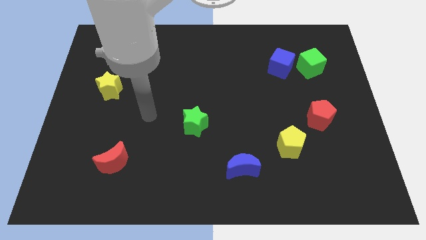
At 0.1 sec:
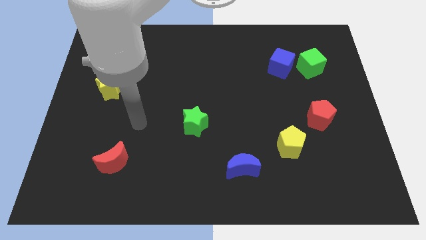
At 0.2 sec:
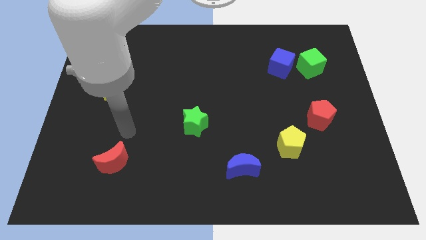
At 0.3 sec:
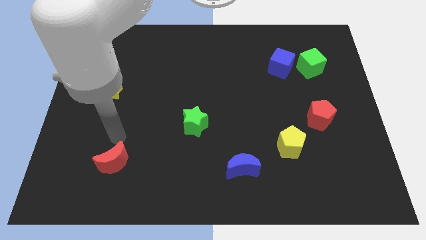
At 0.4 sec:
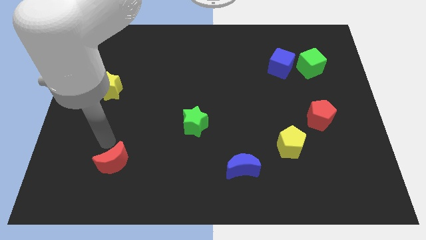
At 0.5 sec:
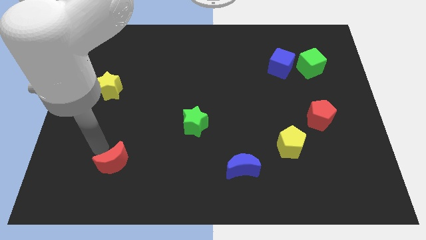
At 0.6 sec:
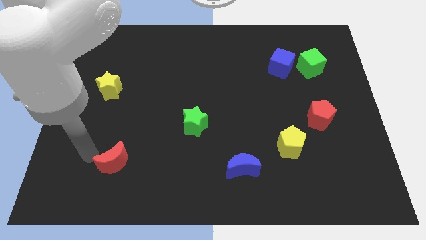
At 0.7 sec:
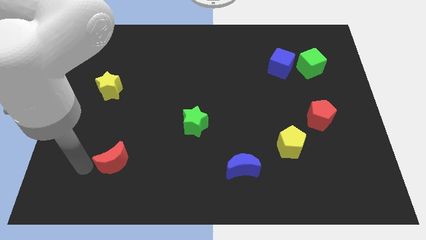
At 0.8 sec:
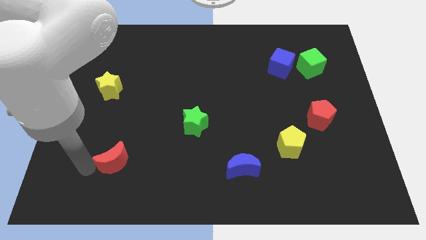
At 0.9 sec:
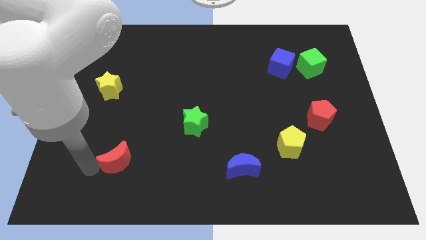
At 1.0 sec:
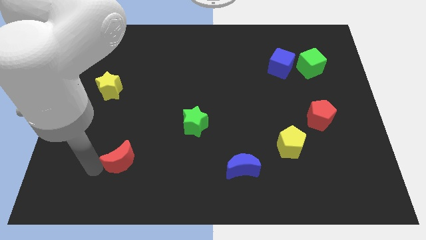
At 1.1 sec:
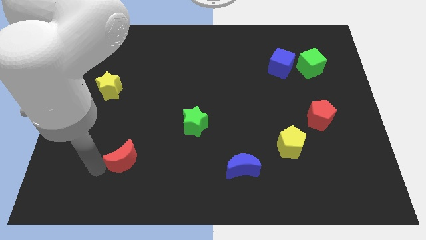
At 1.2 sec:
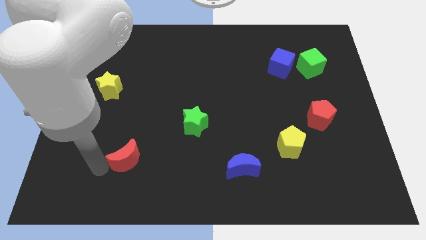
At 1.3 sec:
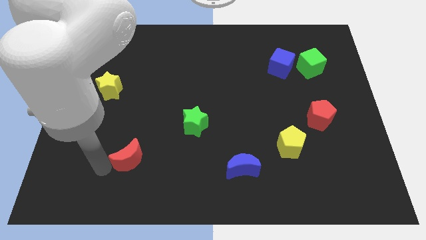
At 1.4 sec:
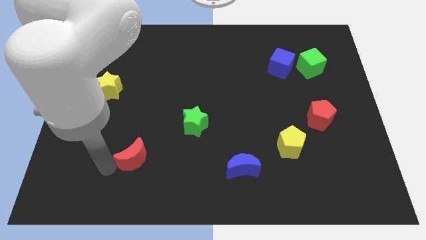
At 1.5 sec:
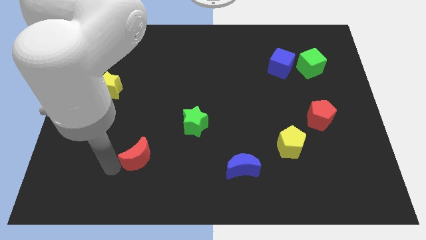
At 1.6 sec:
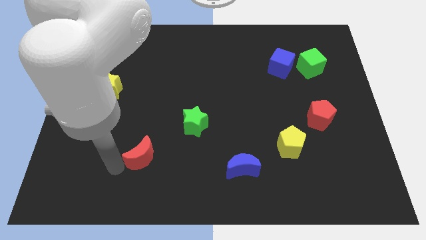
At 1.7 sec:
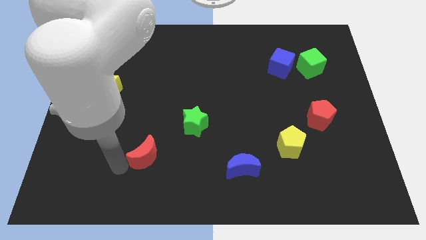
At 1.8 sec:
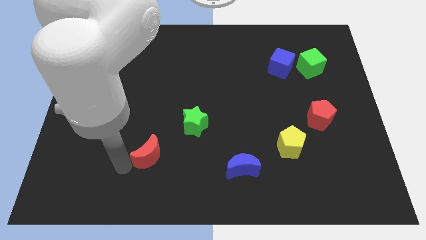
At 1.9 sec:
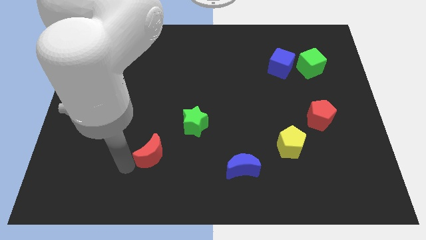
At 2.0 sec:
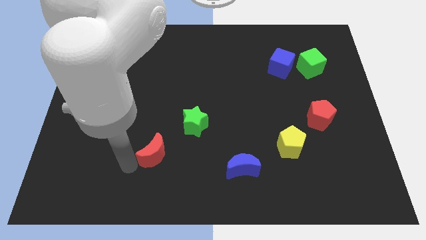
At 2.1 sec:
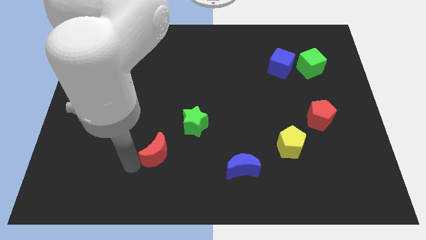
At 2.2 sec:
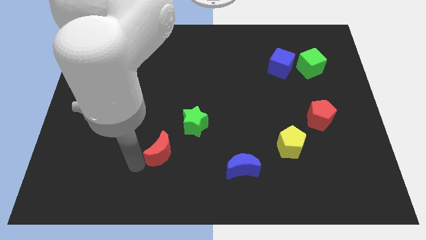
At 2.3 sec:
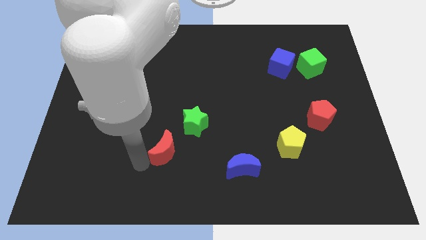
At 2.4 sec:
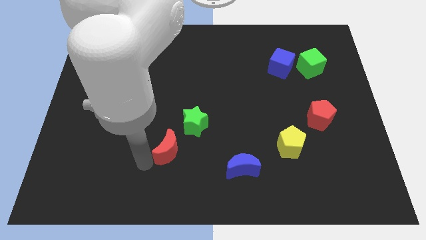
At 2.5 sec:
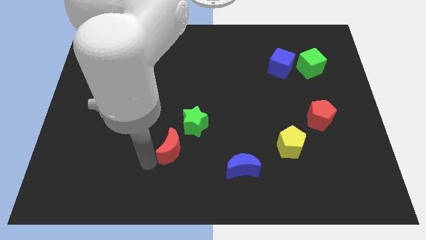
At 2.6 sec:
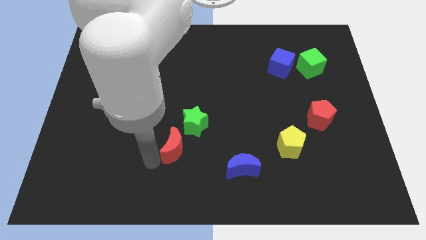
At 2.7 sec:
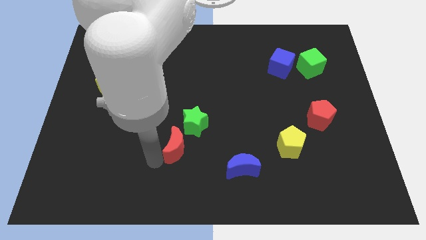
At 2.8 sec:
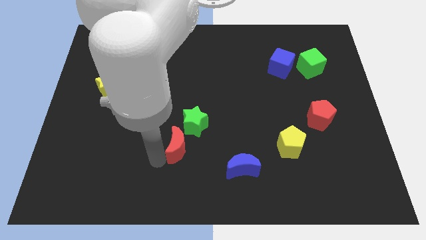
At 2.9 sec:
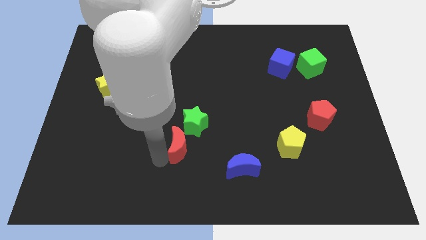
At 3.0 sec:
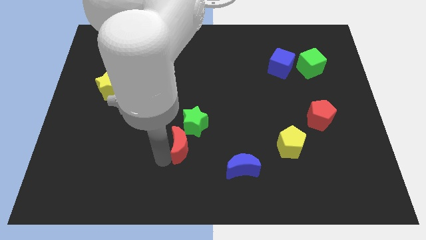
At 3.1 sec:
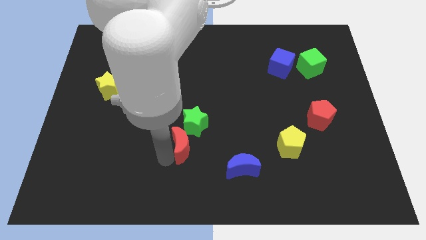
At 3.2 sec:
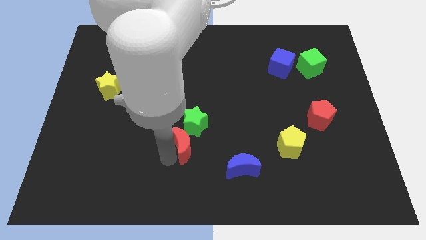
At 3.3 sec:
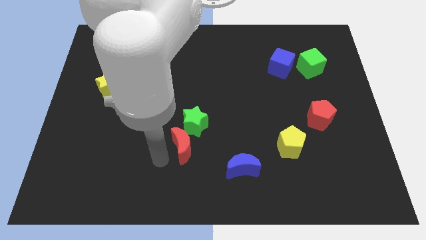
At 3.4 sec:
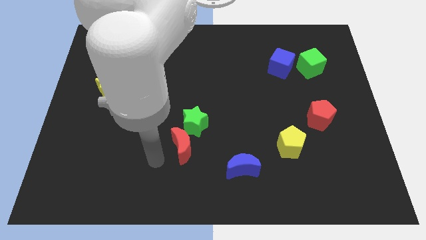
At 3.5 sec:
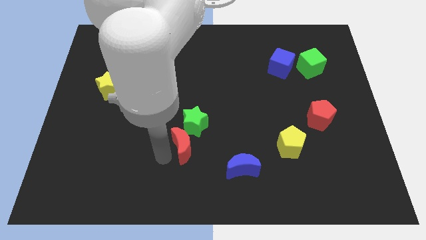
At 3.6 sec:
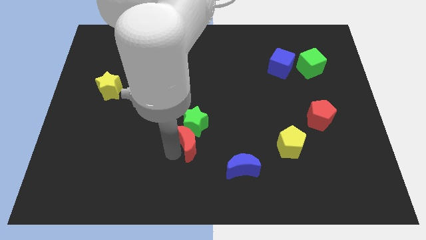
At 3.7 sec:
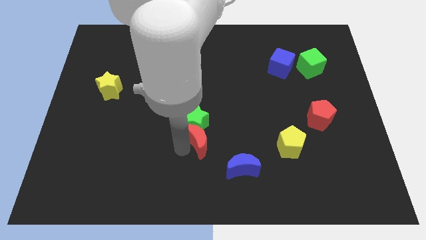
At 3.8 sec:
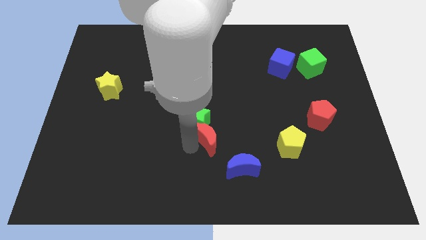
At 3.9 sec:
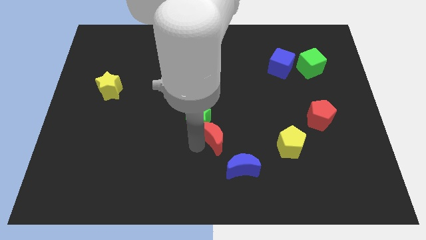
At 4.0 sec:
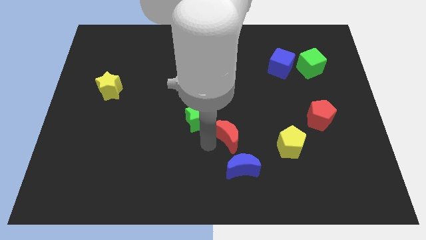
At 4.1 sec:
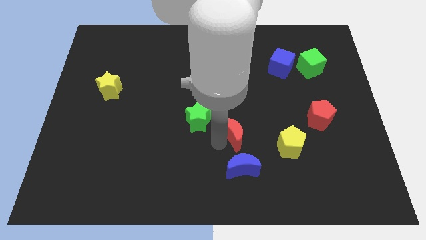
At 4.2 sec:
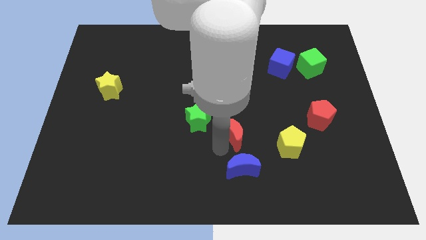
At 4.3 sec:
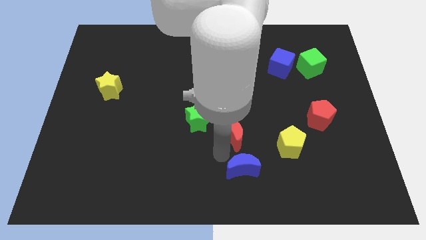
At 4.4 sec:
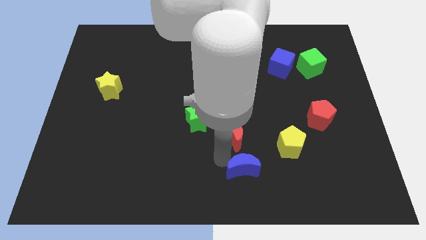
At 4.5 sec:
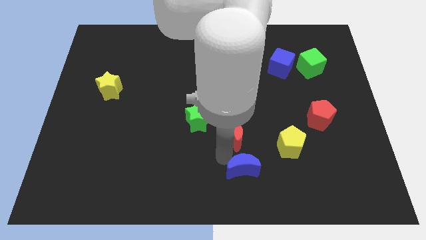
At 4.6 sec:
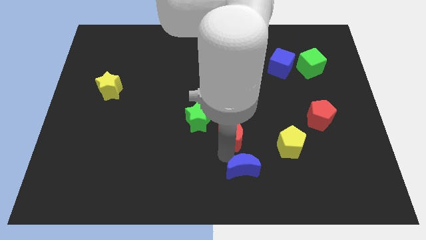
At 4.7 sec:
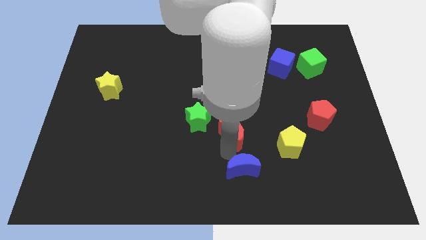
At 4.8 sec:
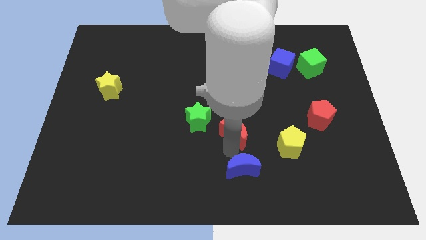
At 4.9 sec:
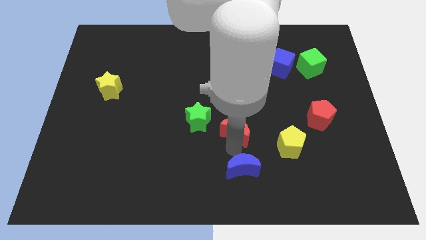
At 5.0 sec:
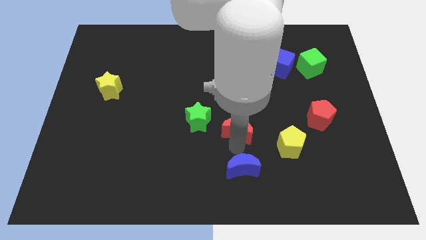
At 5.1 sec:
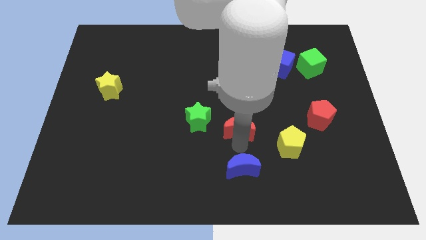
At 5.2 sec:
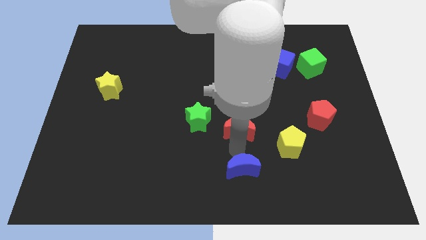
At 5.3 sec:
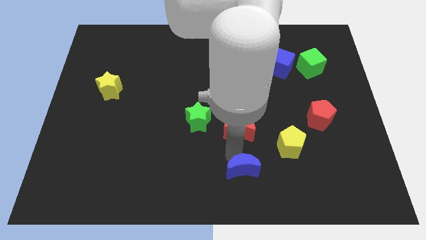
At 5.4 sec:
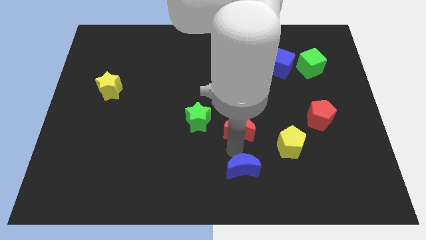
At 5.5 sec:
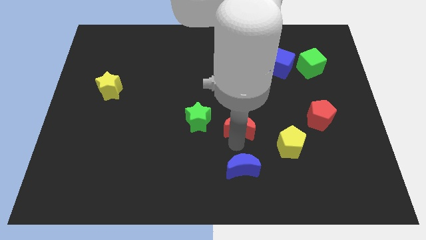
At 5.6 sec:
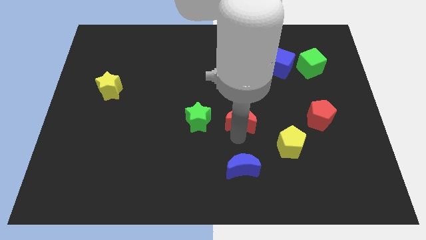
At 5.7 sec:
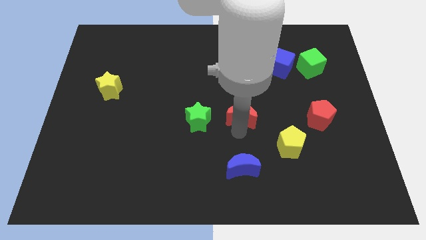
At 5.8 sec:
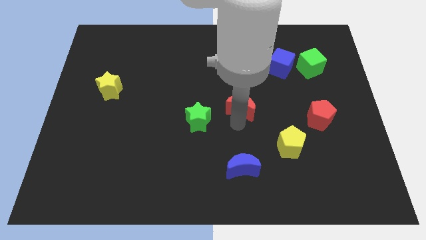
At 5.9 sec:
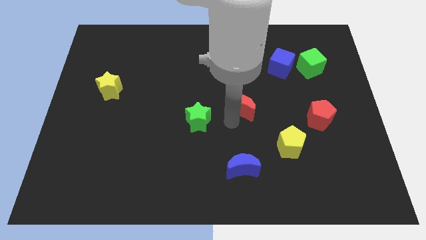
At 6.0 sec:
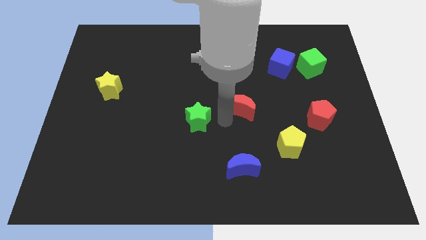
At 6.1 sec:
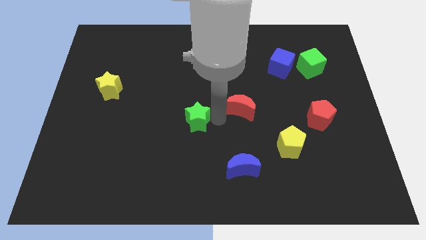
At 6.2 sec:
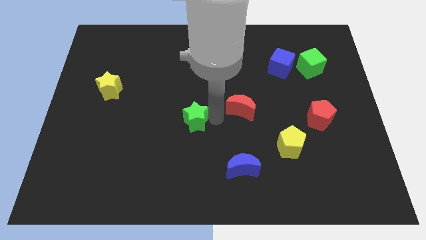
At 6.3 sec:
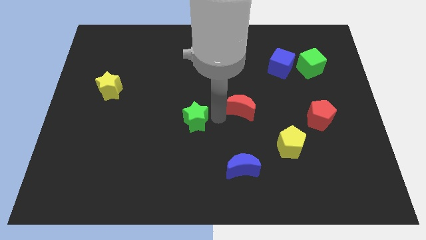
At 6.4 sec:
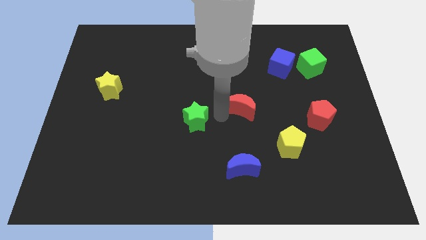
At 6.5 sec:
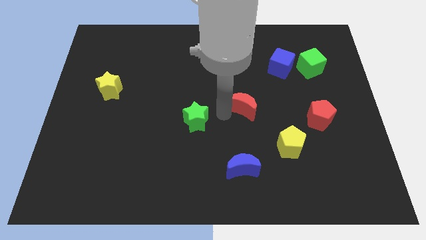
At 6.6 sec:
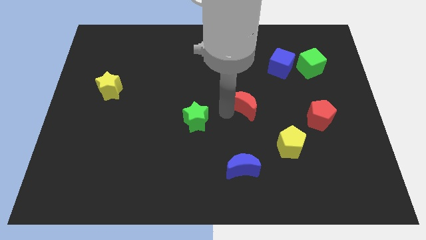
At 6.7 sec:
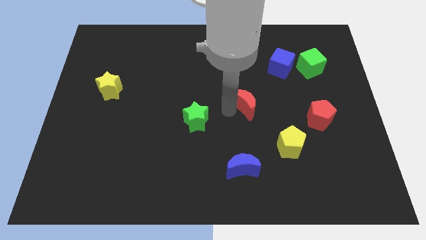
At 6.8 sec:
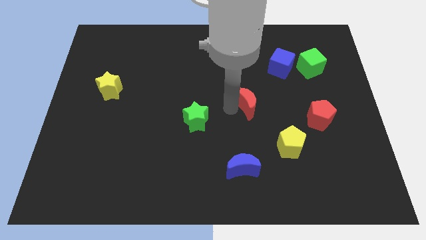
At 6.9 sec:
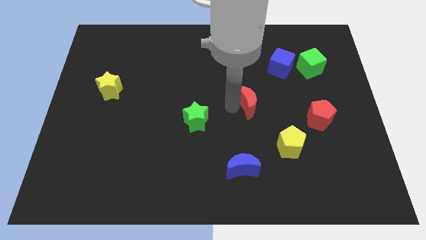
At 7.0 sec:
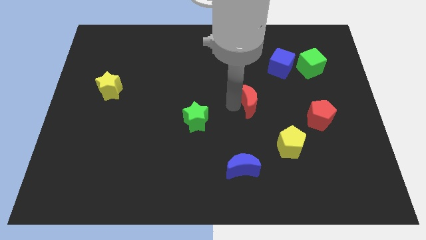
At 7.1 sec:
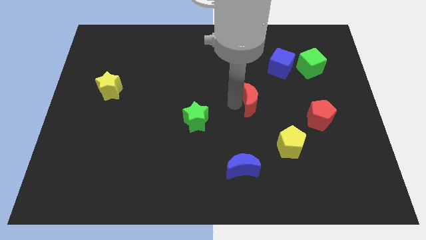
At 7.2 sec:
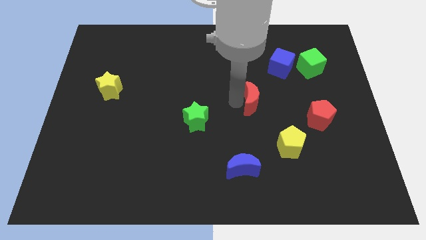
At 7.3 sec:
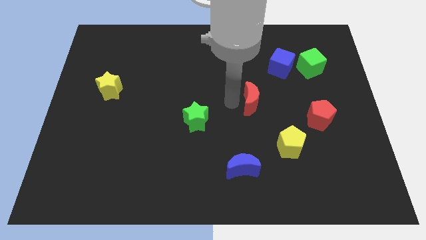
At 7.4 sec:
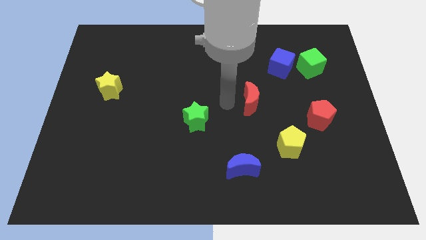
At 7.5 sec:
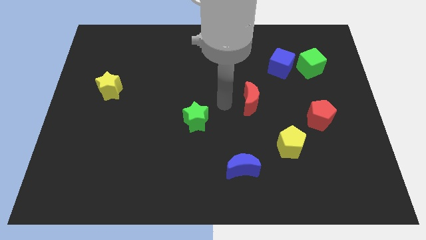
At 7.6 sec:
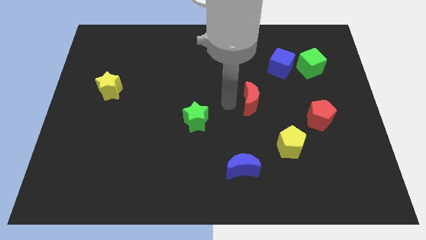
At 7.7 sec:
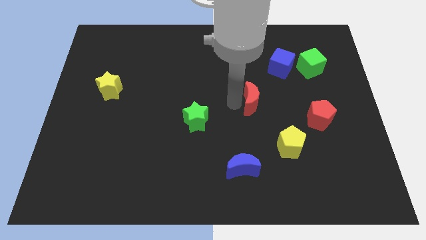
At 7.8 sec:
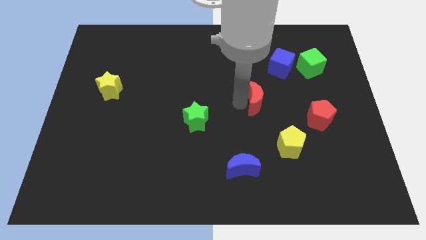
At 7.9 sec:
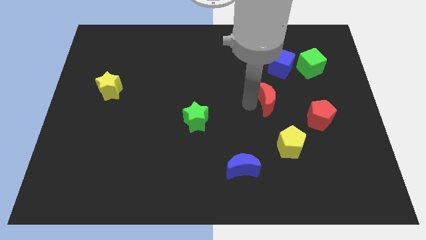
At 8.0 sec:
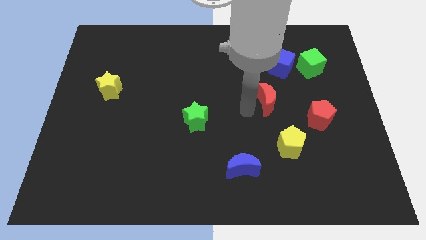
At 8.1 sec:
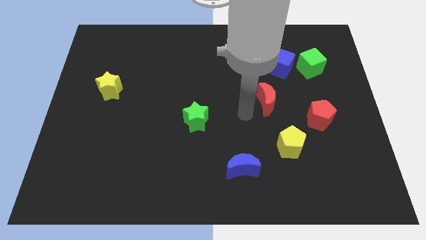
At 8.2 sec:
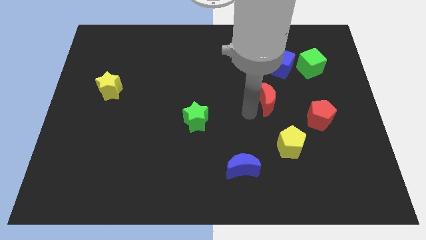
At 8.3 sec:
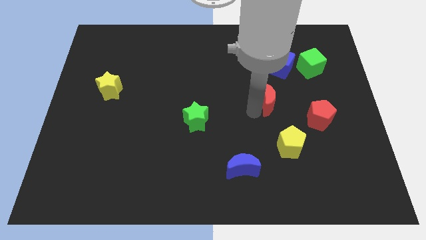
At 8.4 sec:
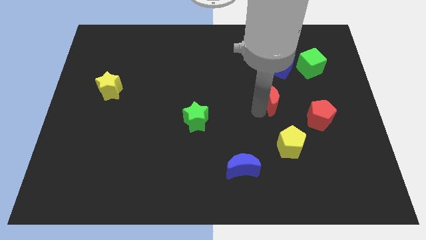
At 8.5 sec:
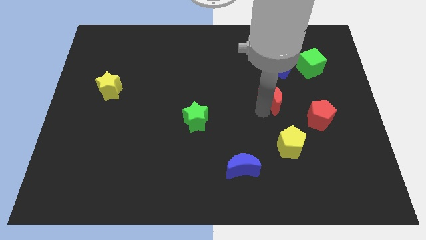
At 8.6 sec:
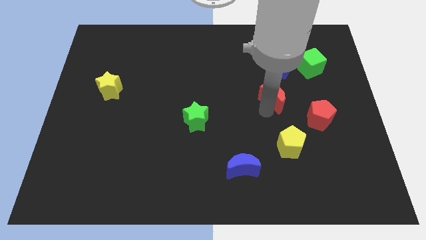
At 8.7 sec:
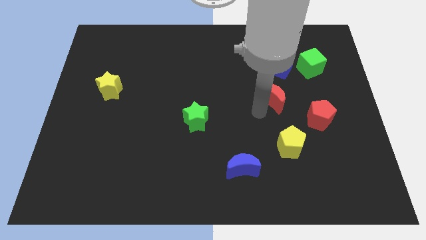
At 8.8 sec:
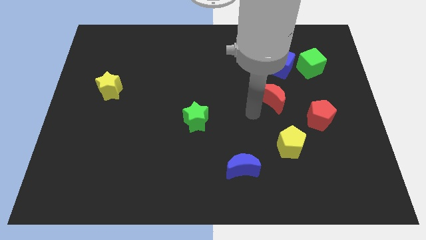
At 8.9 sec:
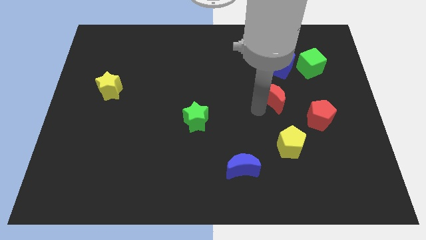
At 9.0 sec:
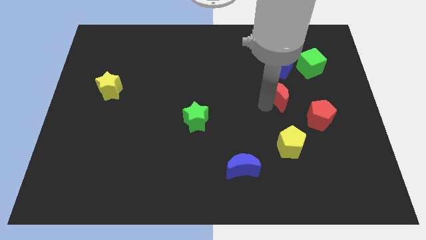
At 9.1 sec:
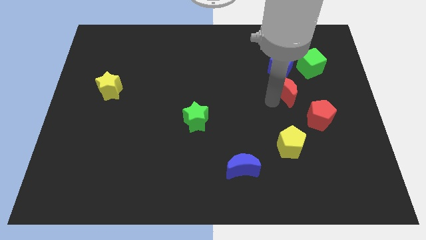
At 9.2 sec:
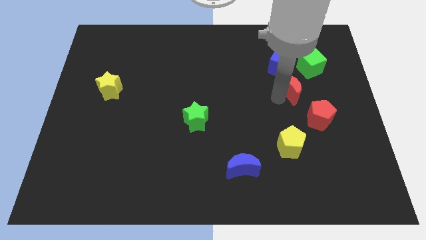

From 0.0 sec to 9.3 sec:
move the red moon to the bottom right side of the blue cube
